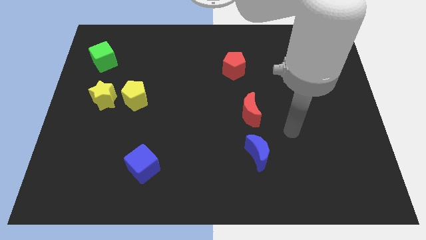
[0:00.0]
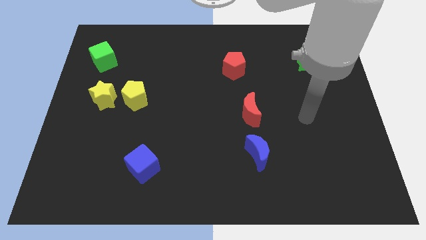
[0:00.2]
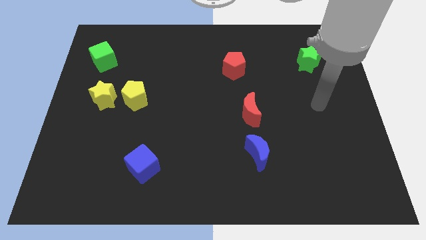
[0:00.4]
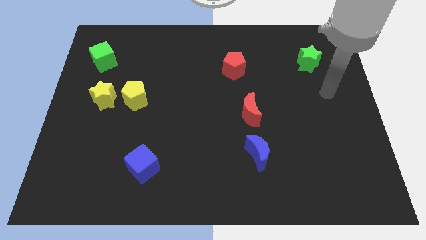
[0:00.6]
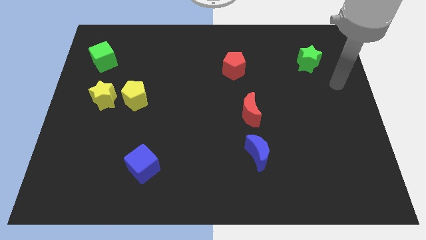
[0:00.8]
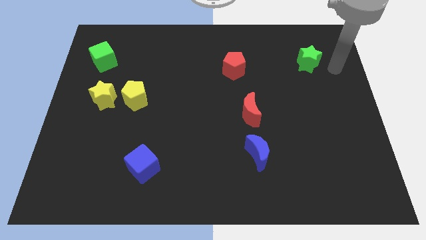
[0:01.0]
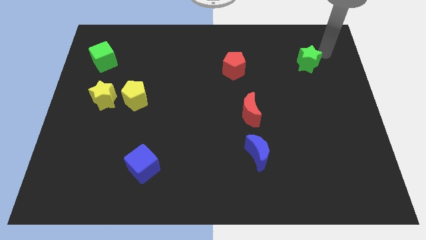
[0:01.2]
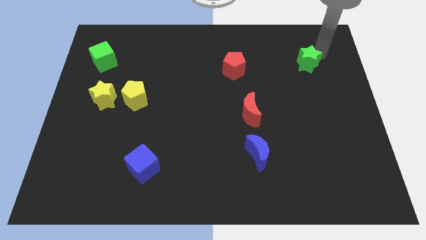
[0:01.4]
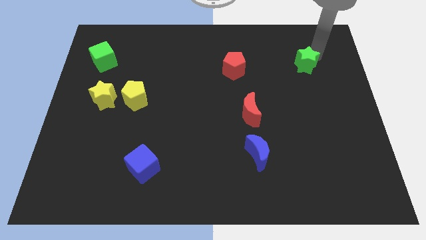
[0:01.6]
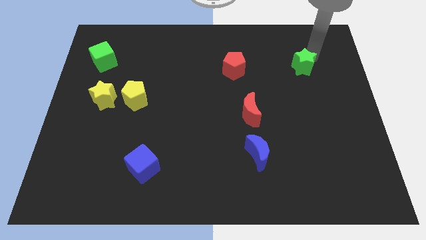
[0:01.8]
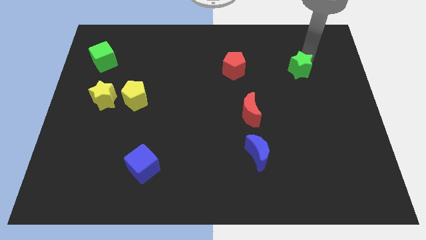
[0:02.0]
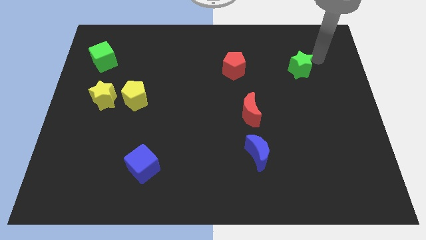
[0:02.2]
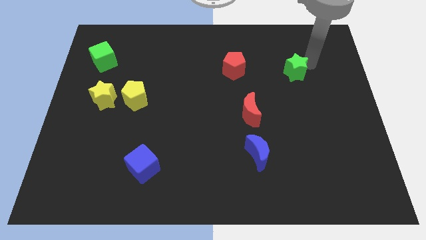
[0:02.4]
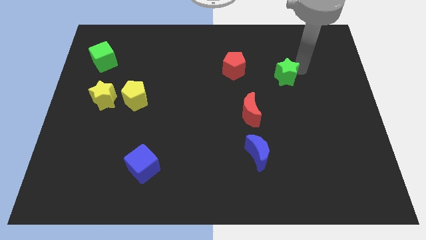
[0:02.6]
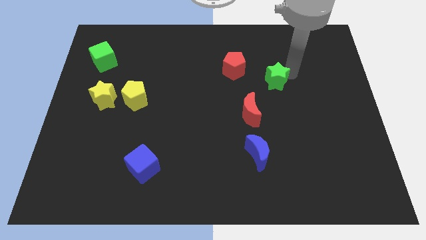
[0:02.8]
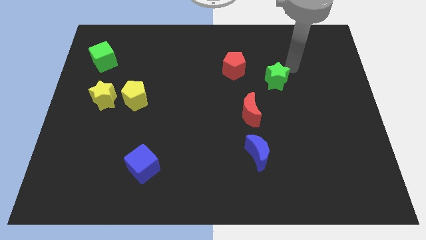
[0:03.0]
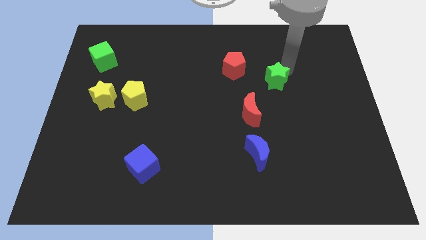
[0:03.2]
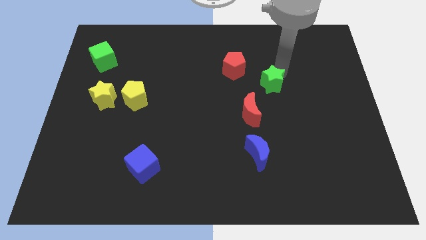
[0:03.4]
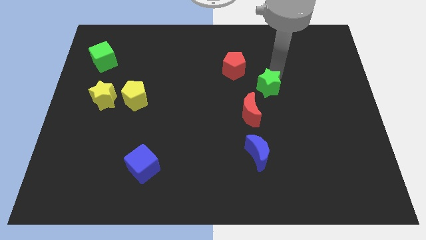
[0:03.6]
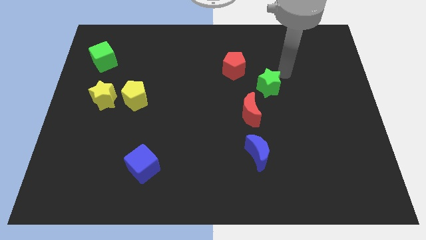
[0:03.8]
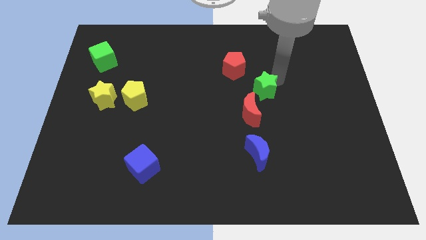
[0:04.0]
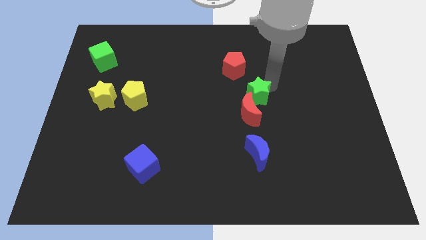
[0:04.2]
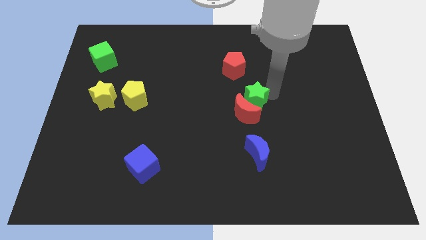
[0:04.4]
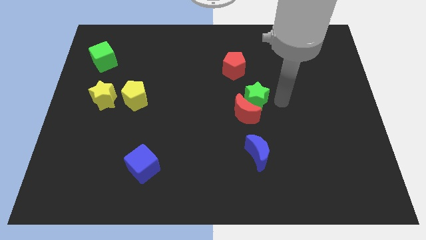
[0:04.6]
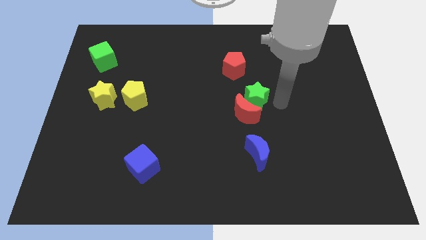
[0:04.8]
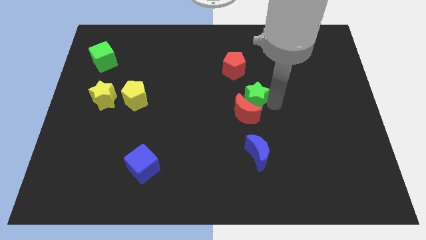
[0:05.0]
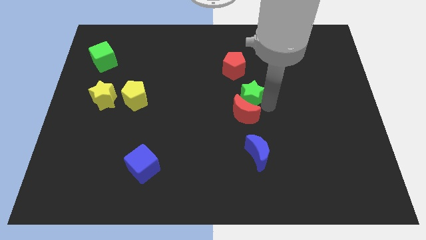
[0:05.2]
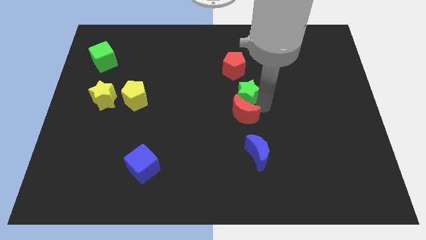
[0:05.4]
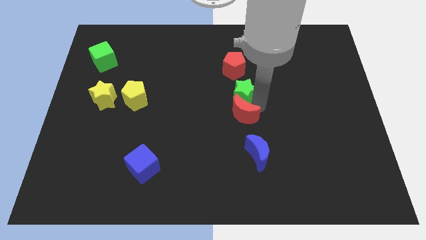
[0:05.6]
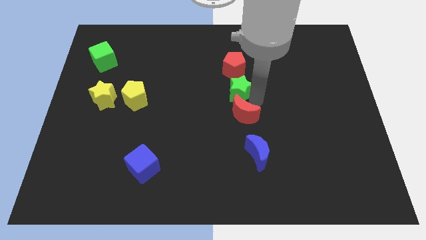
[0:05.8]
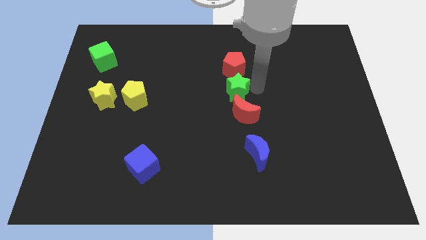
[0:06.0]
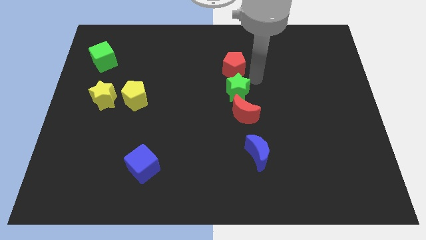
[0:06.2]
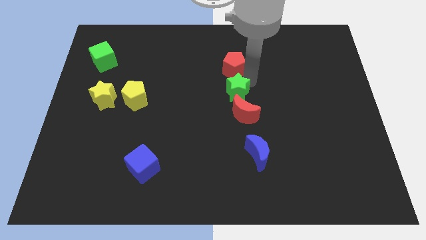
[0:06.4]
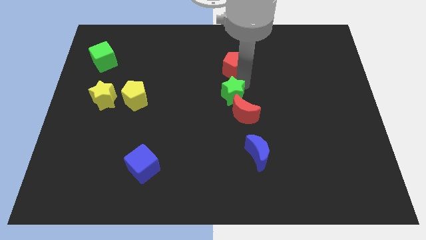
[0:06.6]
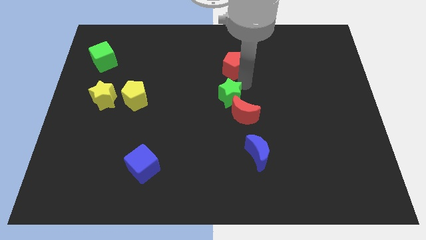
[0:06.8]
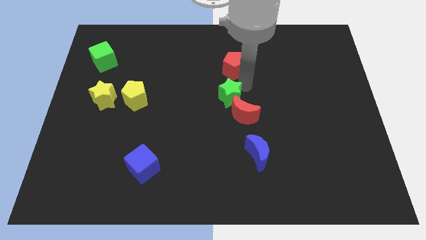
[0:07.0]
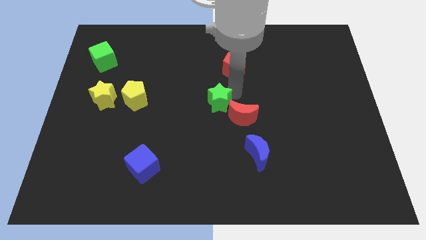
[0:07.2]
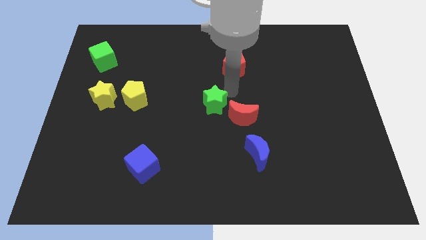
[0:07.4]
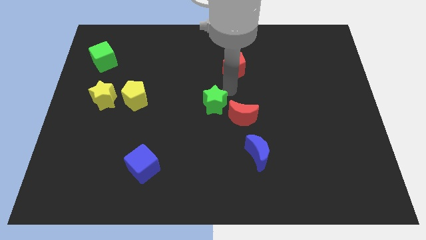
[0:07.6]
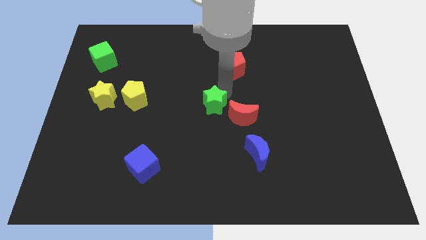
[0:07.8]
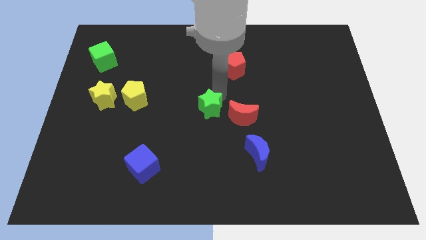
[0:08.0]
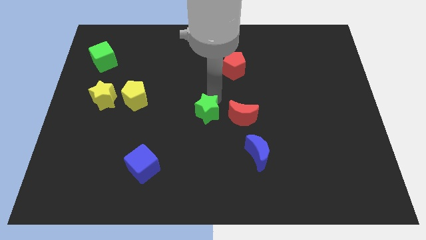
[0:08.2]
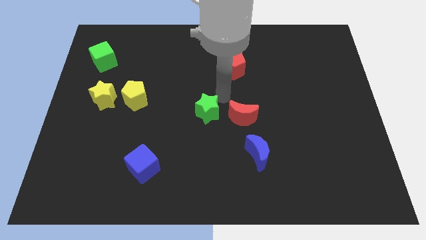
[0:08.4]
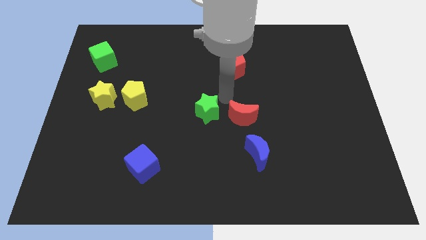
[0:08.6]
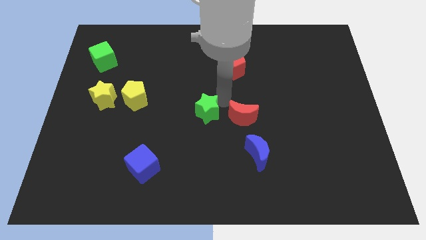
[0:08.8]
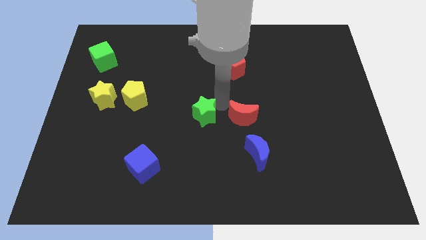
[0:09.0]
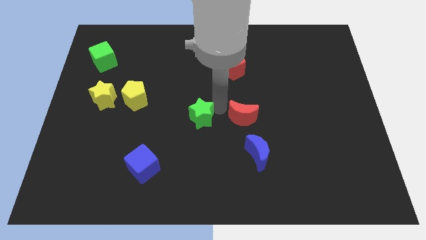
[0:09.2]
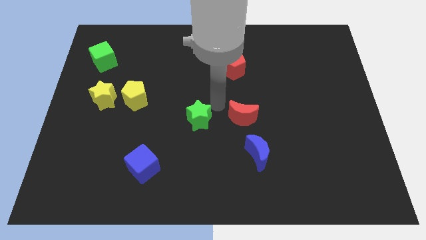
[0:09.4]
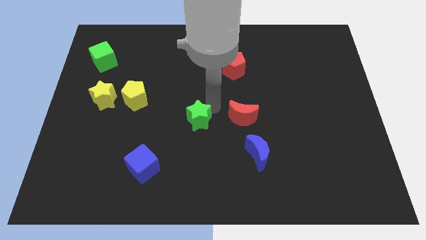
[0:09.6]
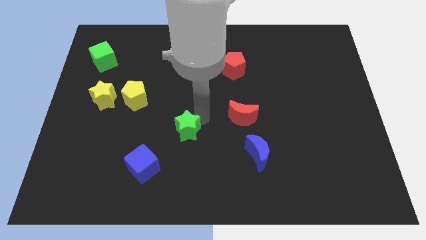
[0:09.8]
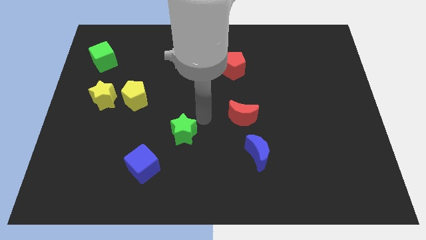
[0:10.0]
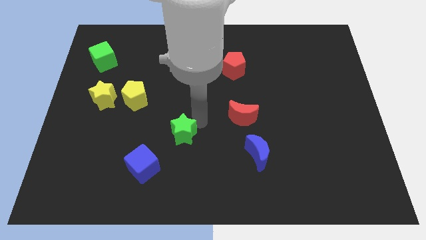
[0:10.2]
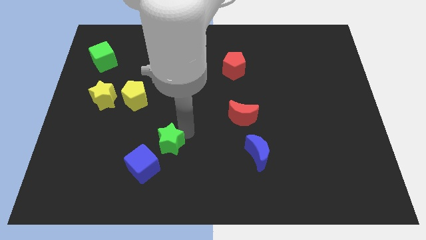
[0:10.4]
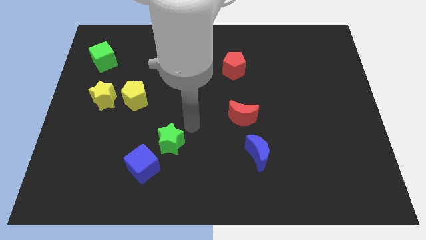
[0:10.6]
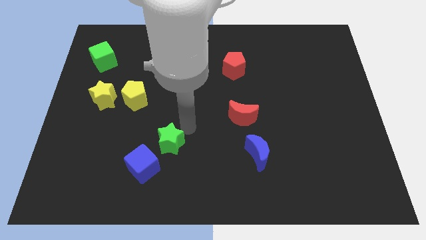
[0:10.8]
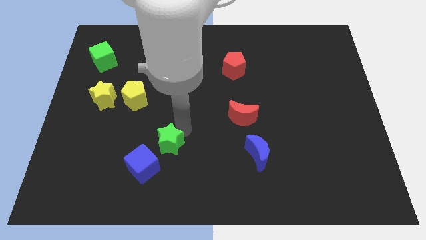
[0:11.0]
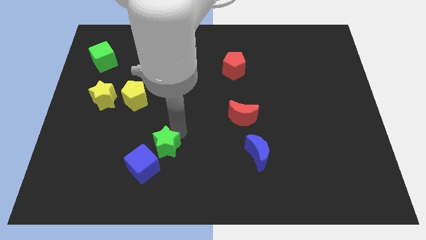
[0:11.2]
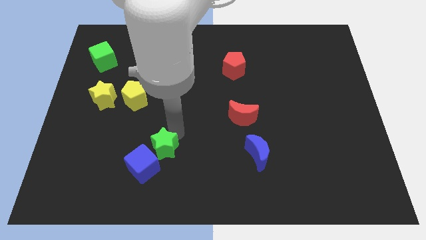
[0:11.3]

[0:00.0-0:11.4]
slide the green star towards the blue cube

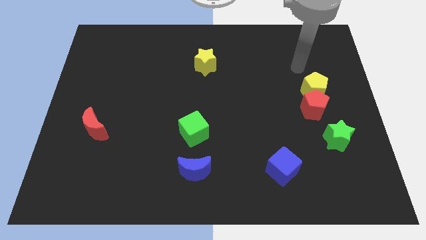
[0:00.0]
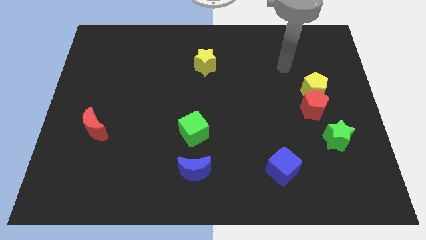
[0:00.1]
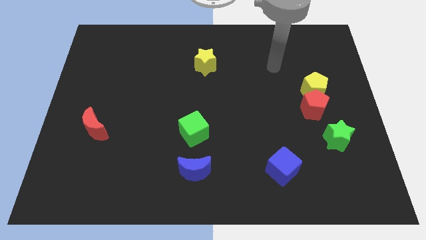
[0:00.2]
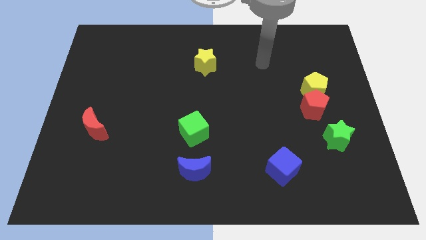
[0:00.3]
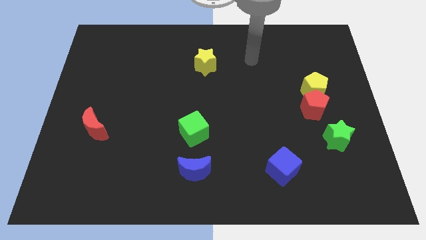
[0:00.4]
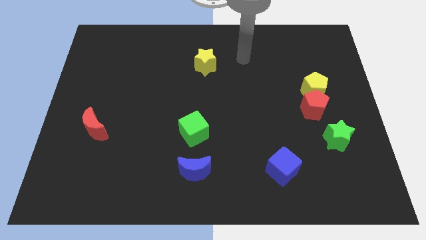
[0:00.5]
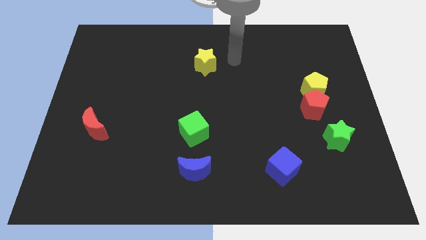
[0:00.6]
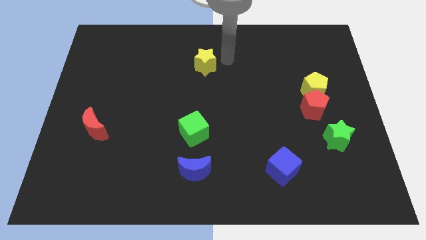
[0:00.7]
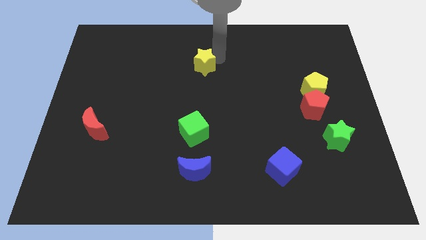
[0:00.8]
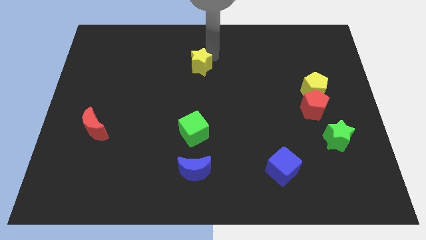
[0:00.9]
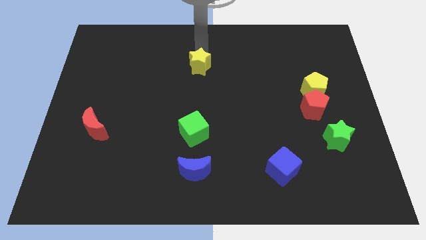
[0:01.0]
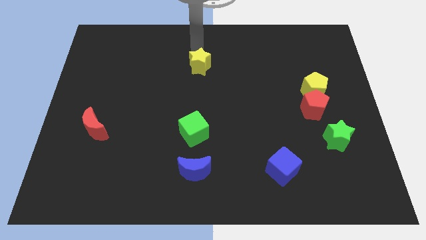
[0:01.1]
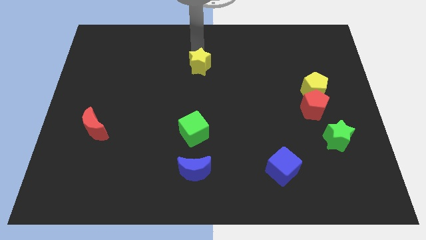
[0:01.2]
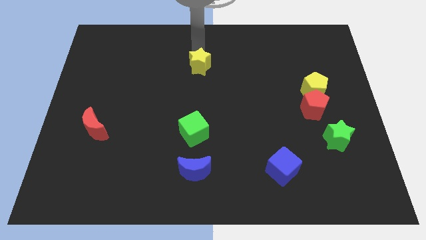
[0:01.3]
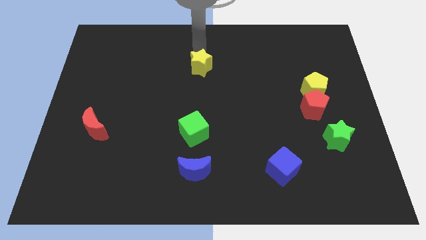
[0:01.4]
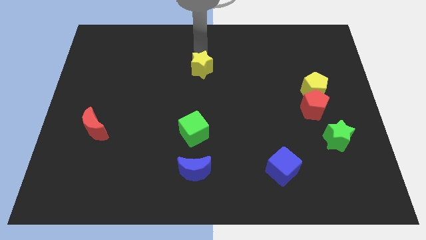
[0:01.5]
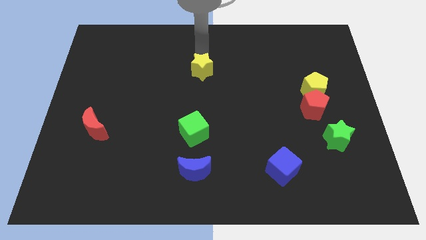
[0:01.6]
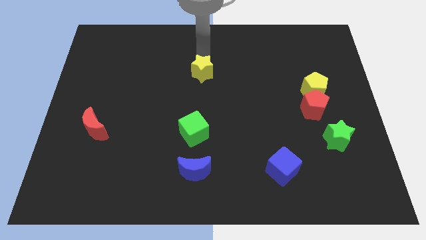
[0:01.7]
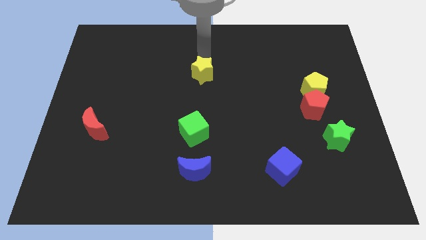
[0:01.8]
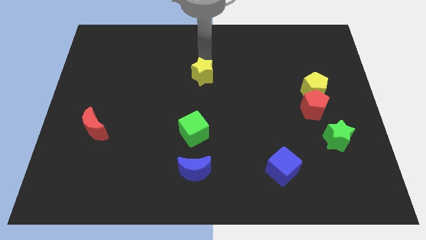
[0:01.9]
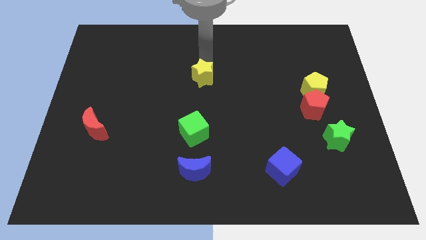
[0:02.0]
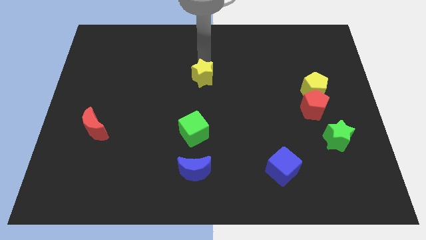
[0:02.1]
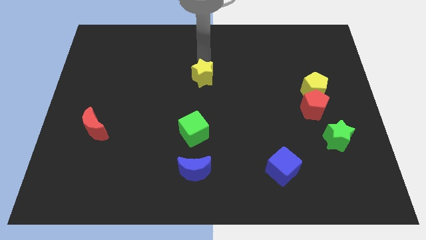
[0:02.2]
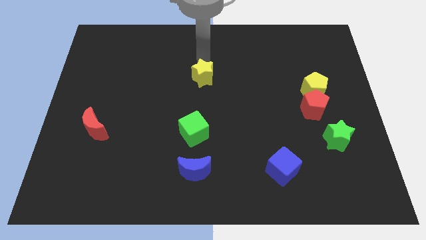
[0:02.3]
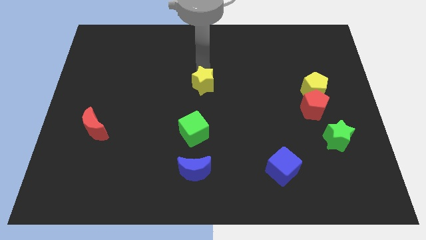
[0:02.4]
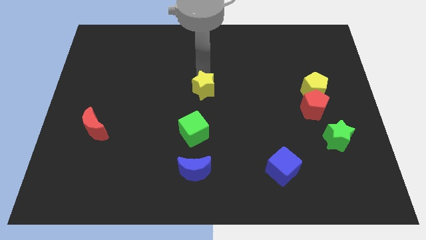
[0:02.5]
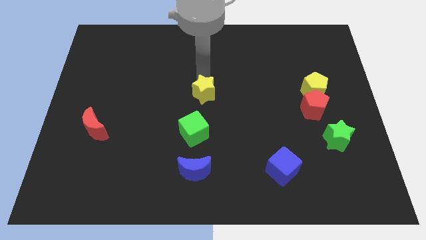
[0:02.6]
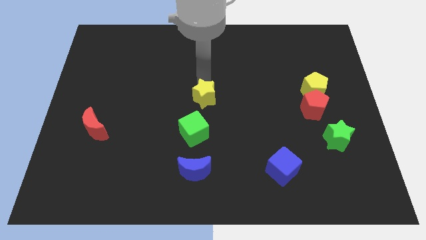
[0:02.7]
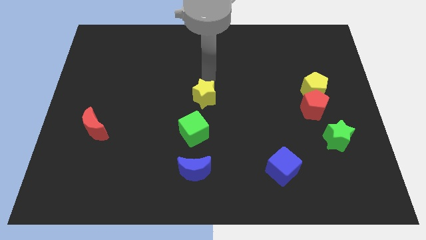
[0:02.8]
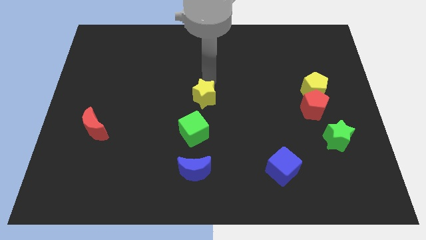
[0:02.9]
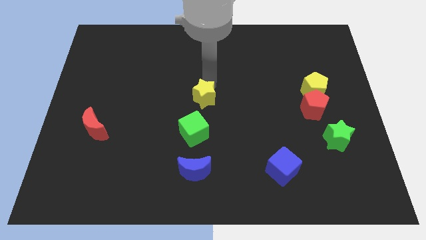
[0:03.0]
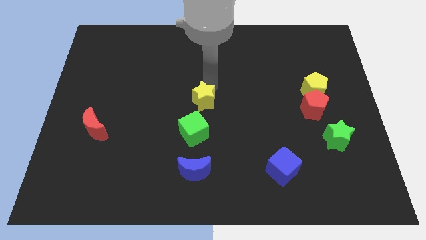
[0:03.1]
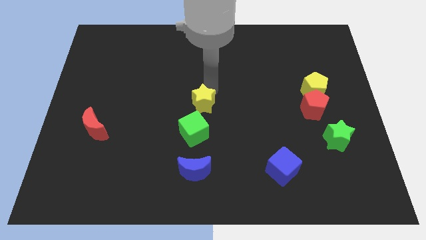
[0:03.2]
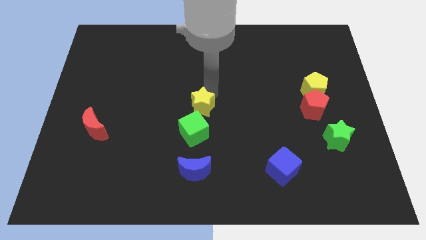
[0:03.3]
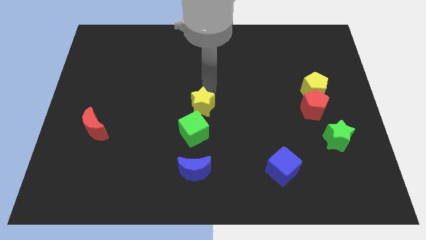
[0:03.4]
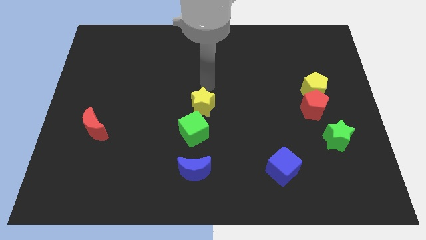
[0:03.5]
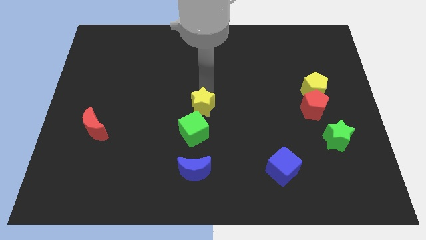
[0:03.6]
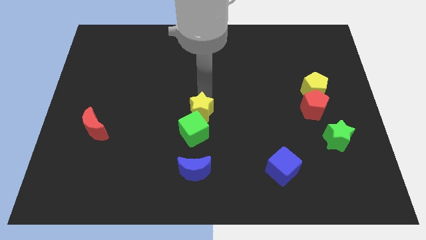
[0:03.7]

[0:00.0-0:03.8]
slide the yellow star to the green cube
